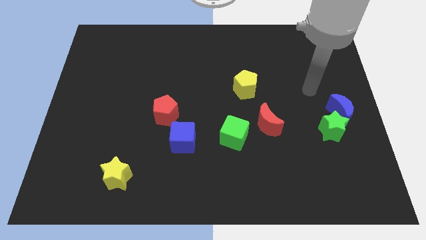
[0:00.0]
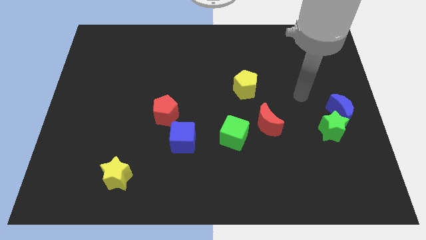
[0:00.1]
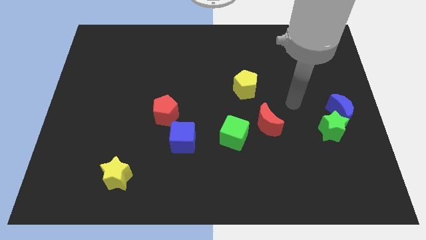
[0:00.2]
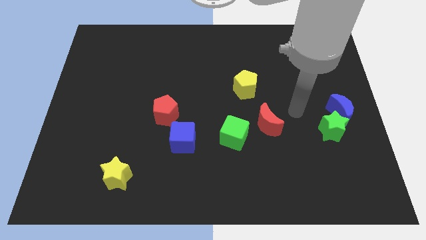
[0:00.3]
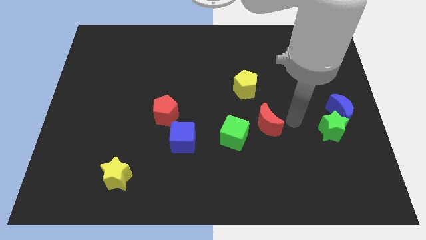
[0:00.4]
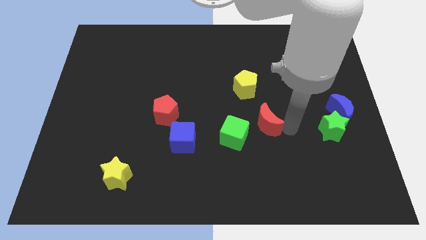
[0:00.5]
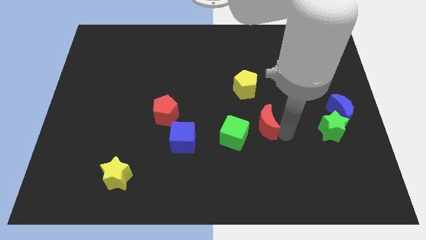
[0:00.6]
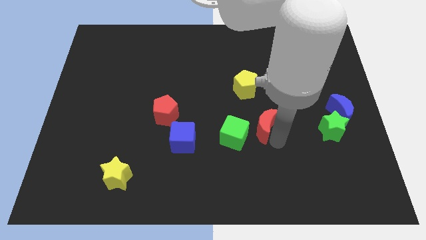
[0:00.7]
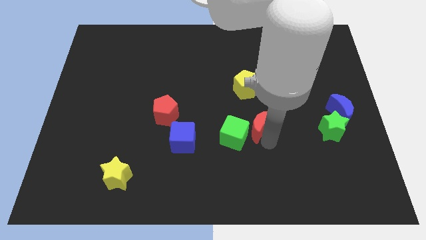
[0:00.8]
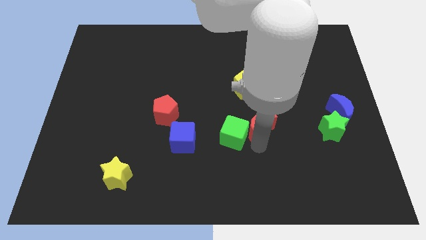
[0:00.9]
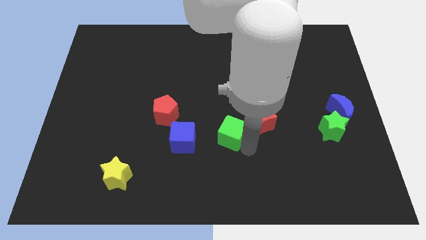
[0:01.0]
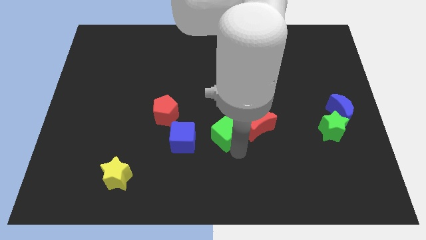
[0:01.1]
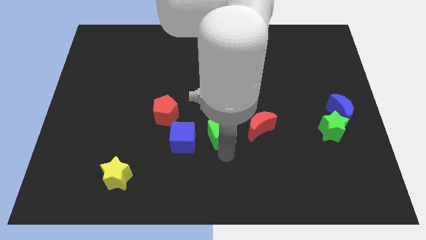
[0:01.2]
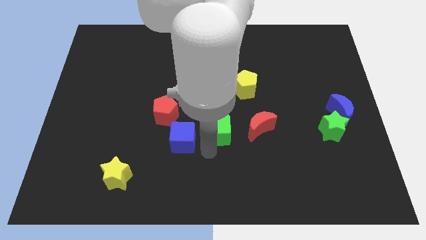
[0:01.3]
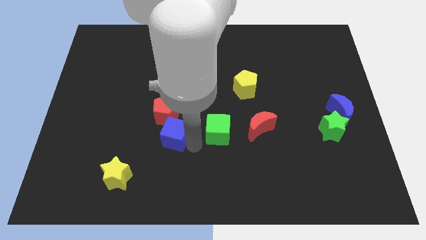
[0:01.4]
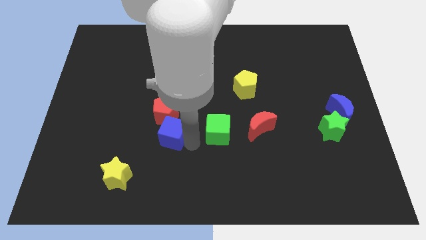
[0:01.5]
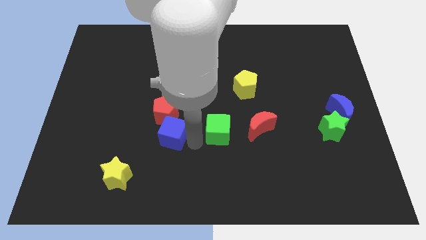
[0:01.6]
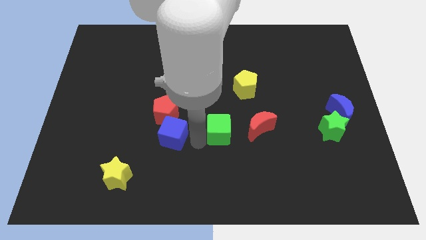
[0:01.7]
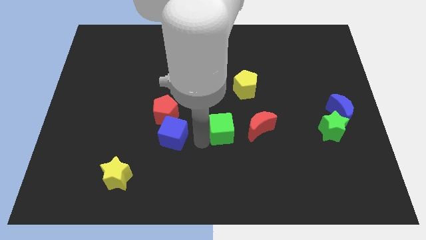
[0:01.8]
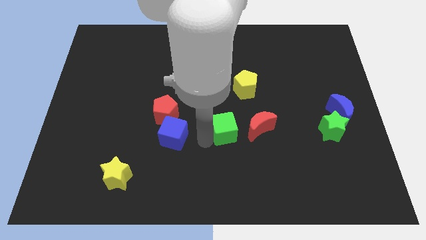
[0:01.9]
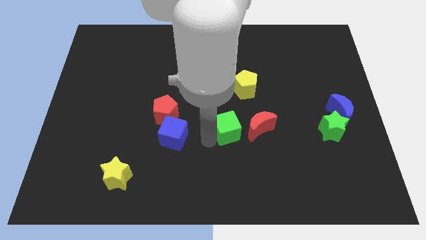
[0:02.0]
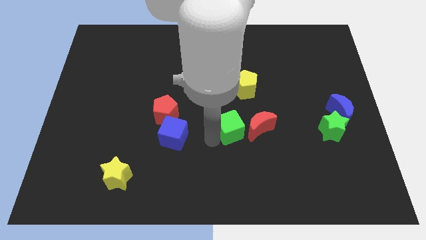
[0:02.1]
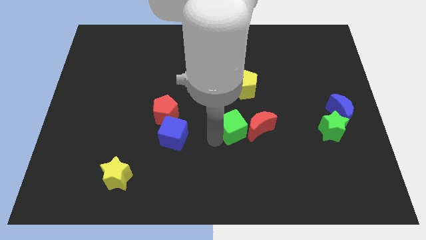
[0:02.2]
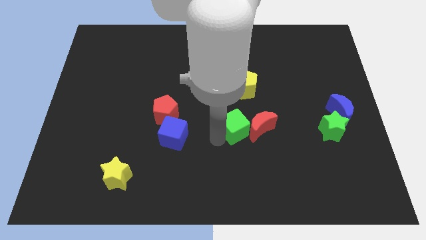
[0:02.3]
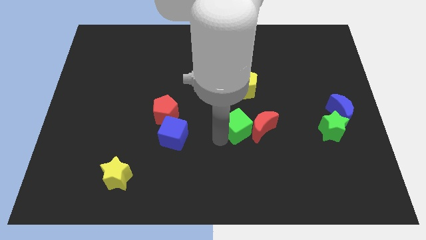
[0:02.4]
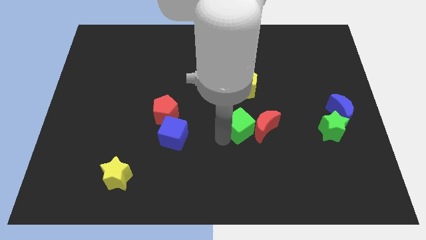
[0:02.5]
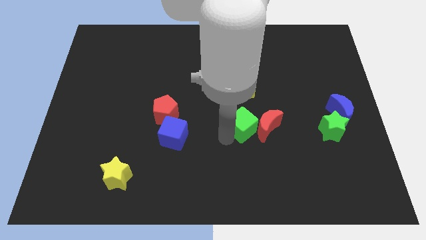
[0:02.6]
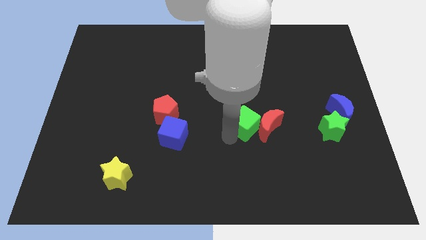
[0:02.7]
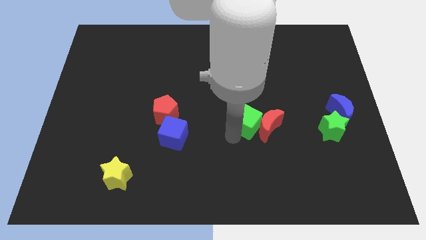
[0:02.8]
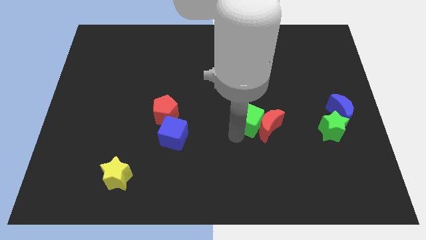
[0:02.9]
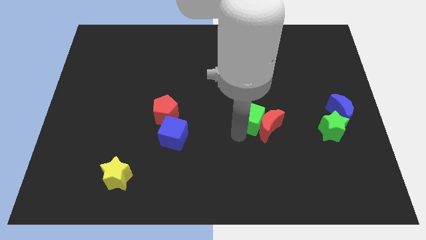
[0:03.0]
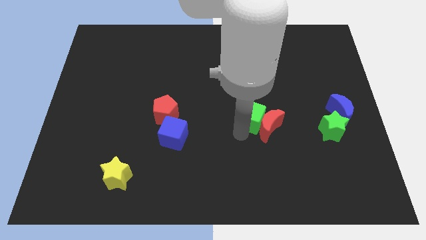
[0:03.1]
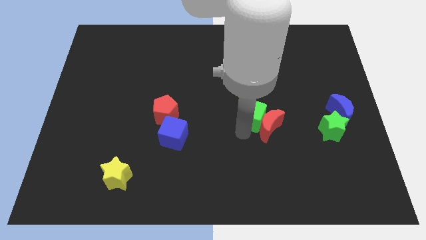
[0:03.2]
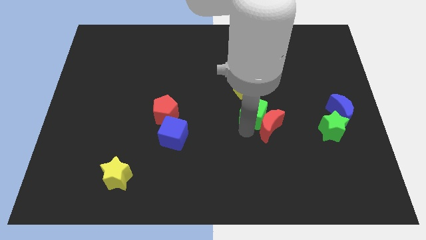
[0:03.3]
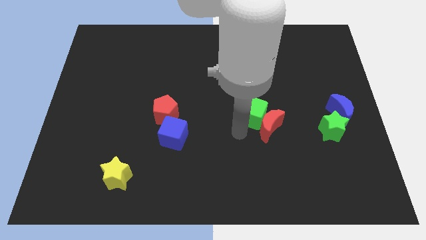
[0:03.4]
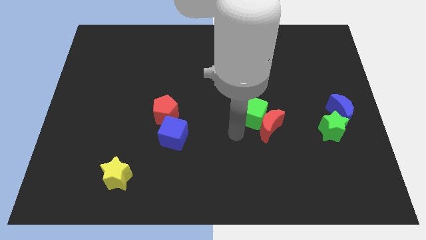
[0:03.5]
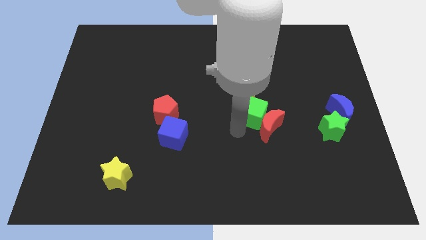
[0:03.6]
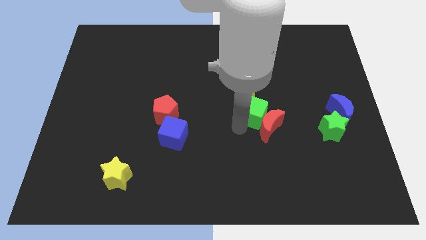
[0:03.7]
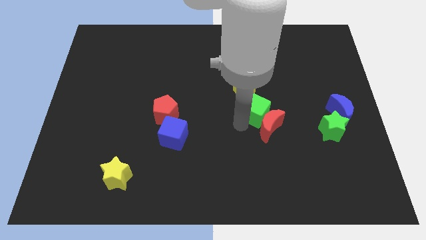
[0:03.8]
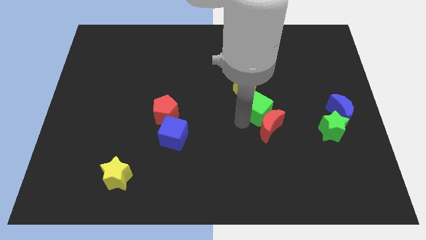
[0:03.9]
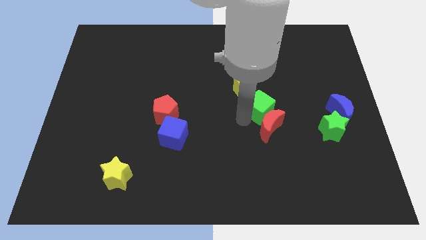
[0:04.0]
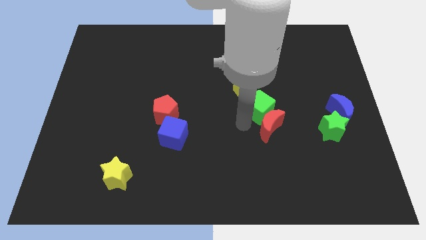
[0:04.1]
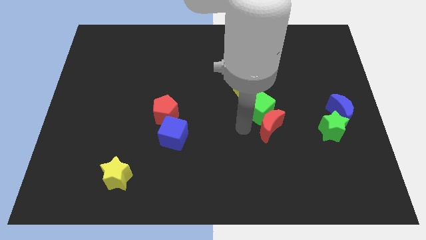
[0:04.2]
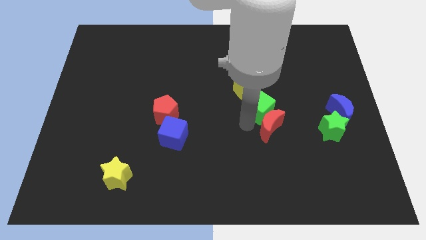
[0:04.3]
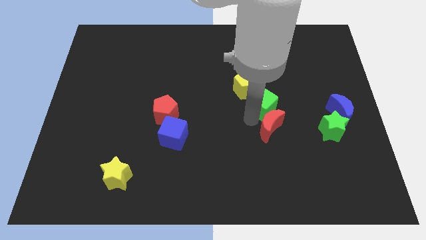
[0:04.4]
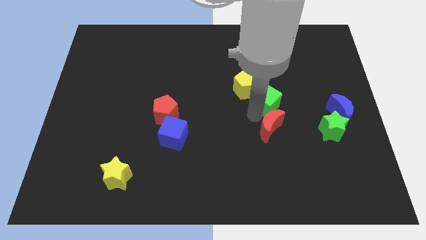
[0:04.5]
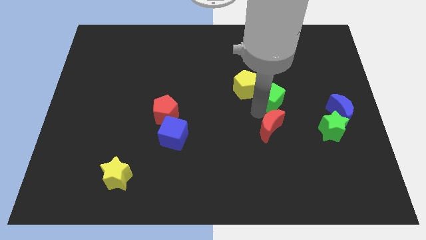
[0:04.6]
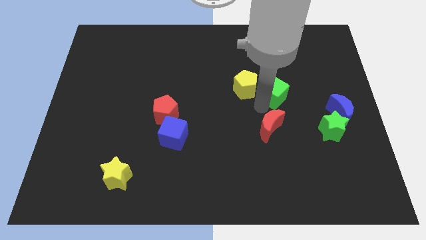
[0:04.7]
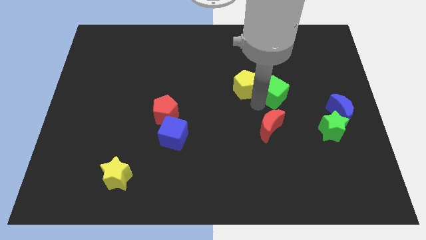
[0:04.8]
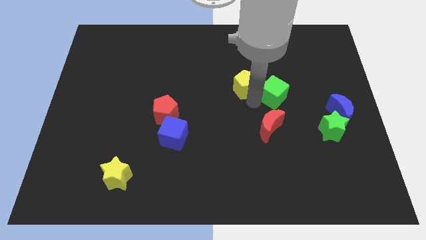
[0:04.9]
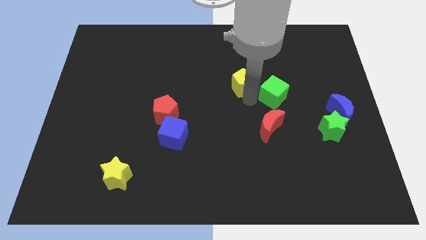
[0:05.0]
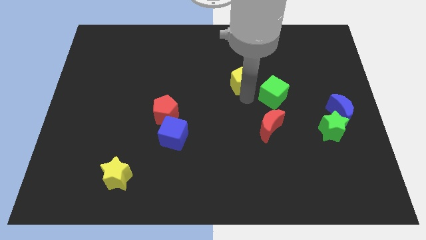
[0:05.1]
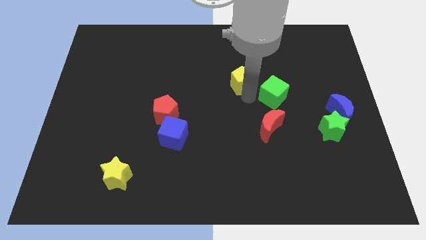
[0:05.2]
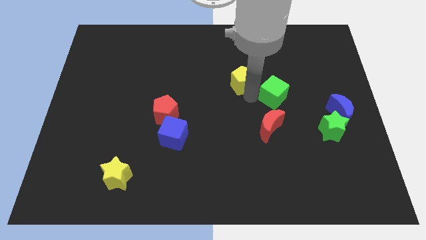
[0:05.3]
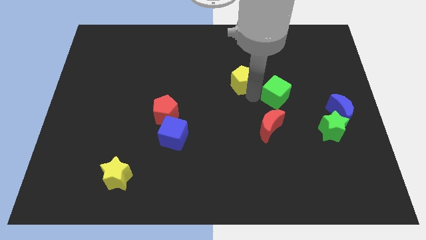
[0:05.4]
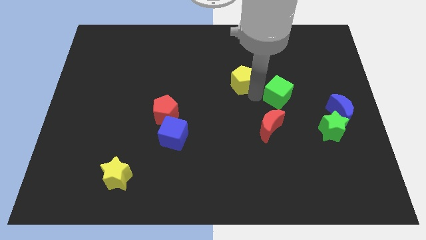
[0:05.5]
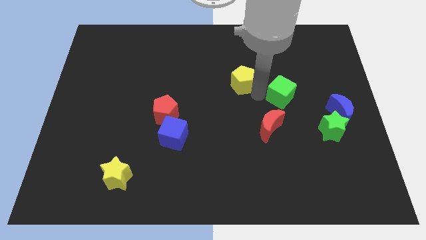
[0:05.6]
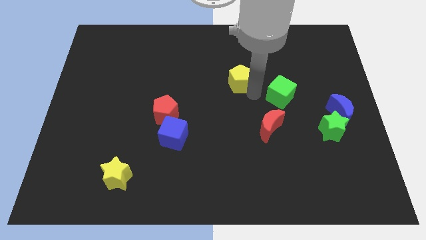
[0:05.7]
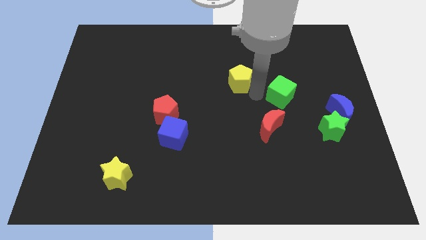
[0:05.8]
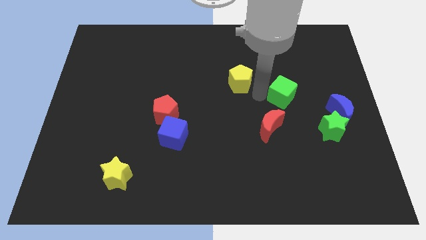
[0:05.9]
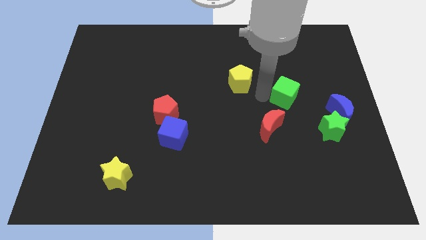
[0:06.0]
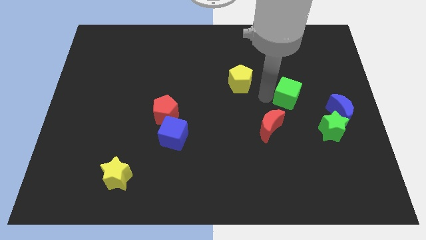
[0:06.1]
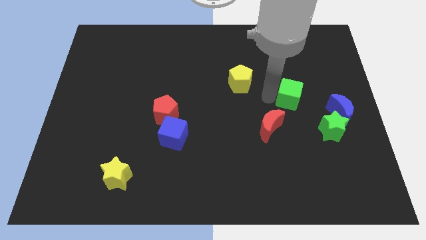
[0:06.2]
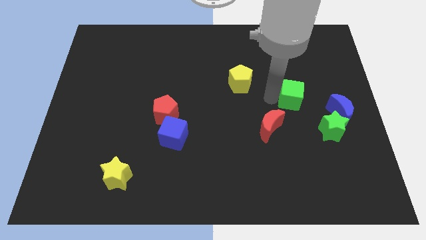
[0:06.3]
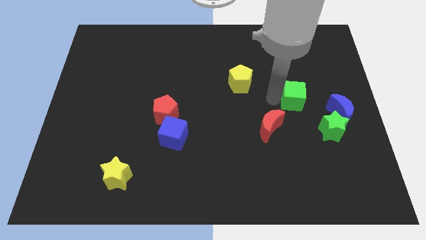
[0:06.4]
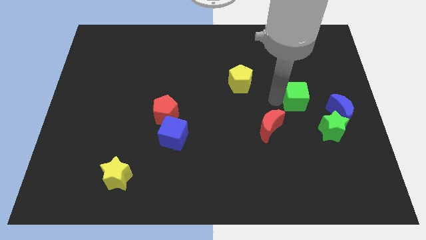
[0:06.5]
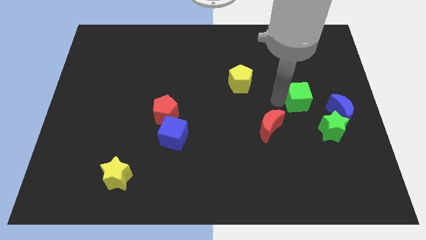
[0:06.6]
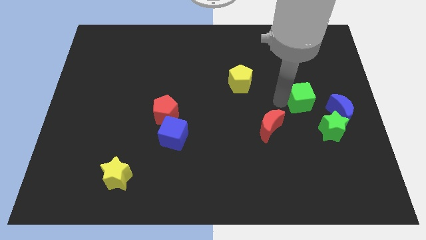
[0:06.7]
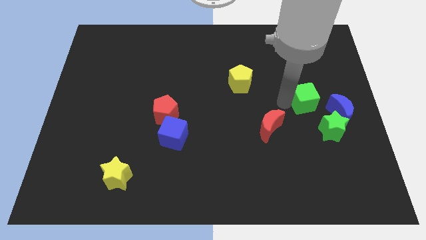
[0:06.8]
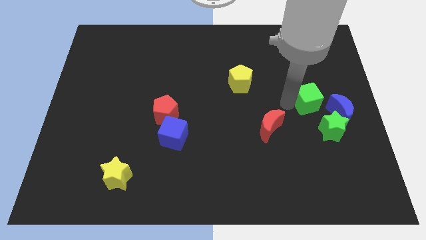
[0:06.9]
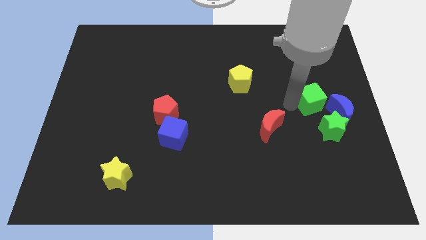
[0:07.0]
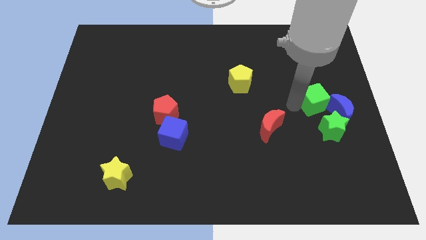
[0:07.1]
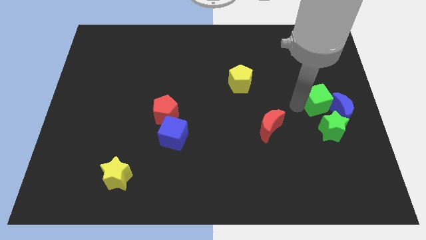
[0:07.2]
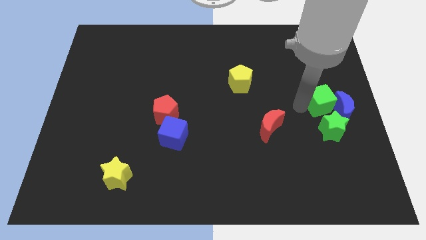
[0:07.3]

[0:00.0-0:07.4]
put the green cube to the center right
